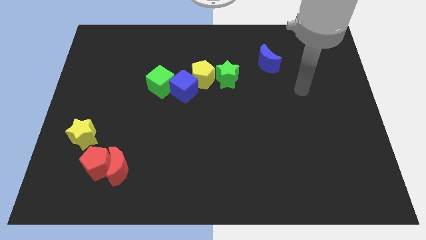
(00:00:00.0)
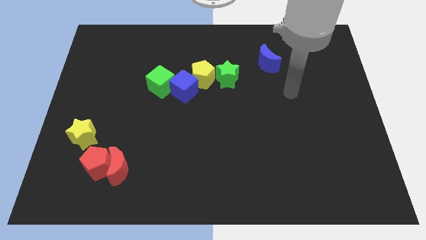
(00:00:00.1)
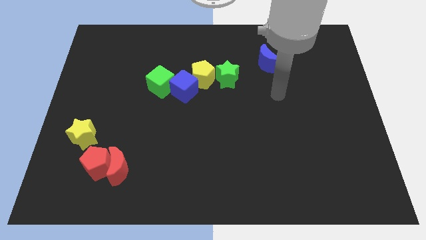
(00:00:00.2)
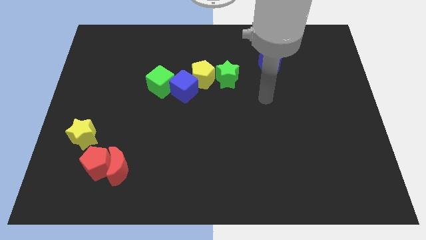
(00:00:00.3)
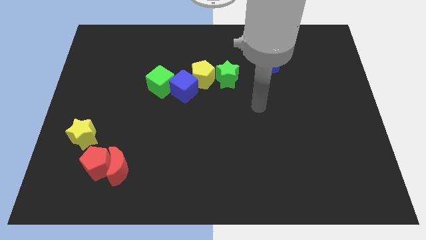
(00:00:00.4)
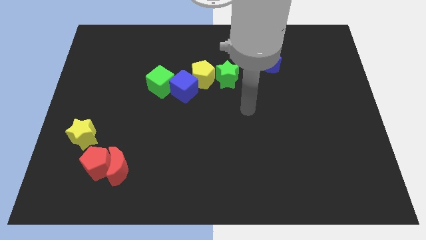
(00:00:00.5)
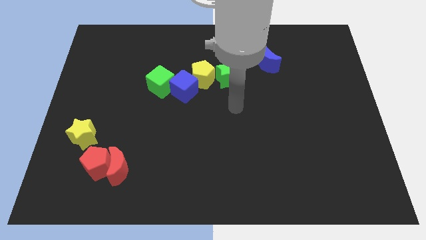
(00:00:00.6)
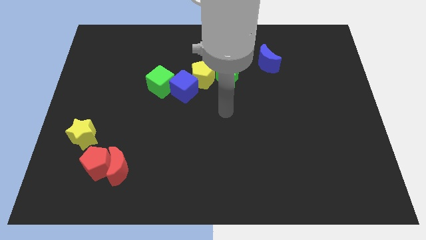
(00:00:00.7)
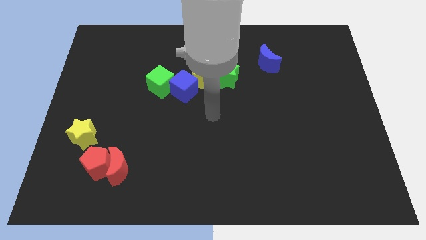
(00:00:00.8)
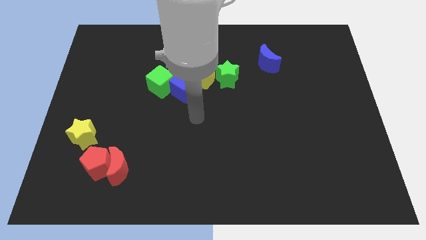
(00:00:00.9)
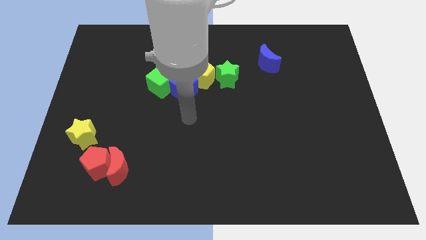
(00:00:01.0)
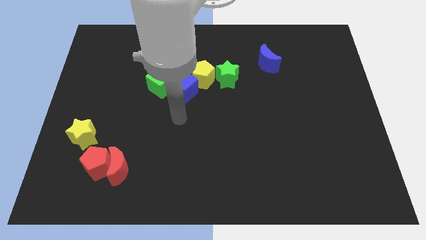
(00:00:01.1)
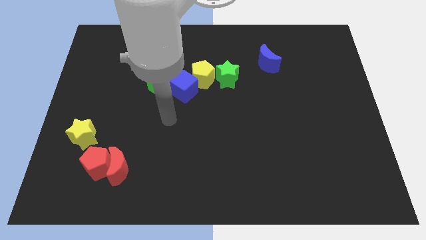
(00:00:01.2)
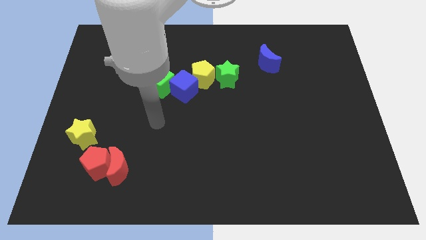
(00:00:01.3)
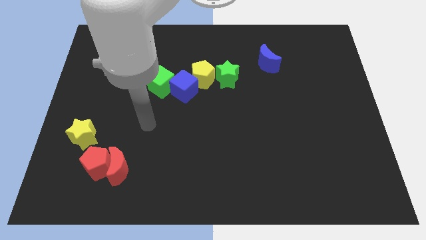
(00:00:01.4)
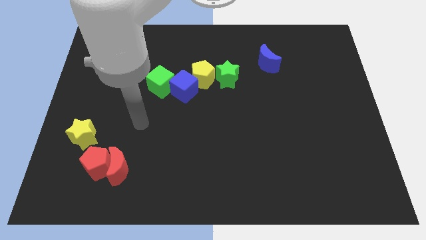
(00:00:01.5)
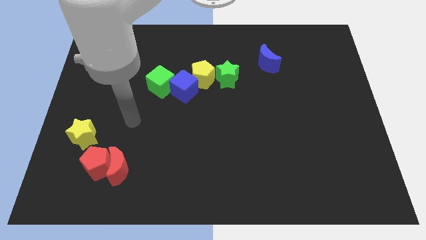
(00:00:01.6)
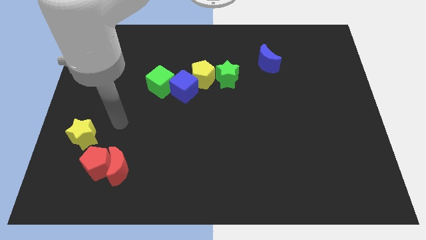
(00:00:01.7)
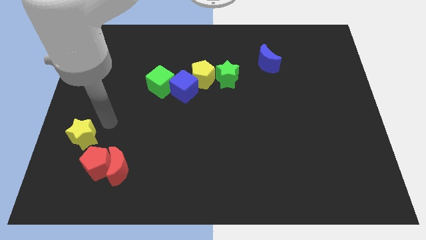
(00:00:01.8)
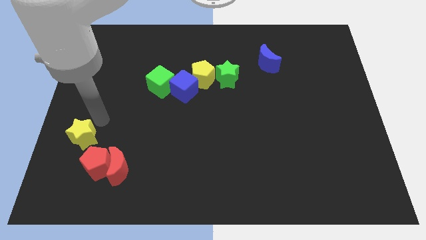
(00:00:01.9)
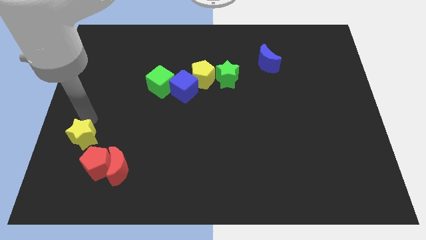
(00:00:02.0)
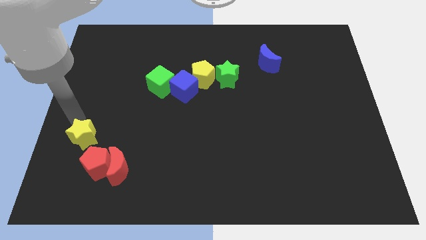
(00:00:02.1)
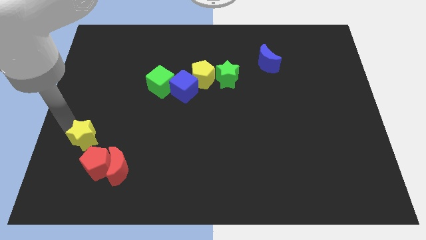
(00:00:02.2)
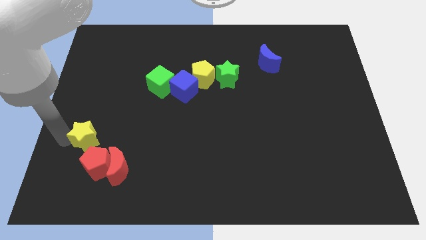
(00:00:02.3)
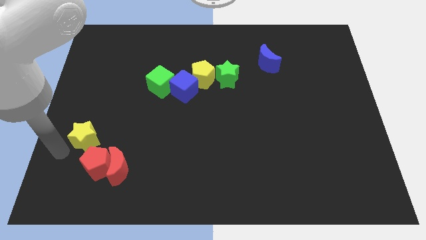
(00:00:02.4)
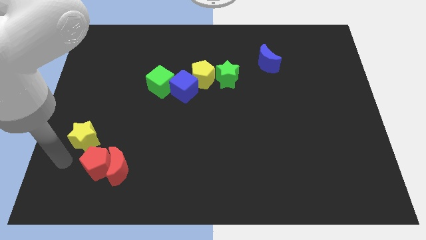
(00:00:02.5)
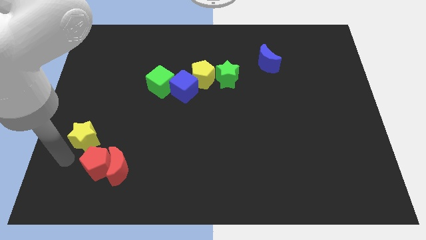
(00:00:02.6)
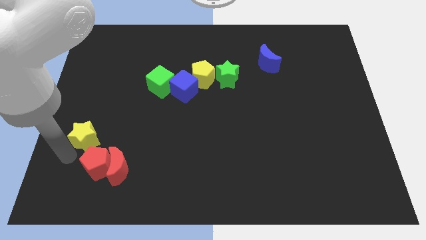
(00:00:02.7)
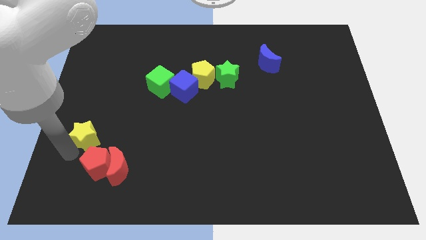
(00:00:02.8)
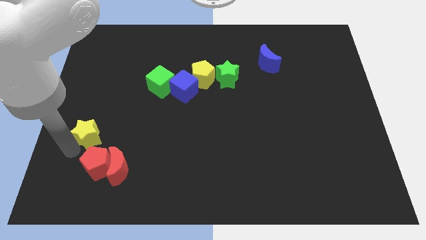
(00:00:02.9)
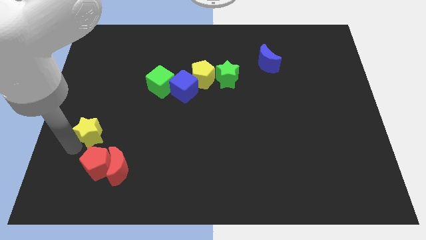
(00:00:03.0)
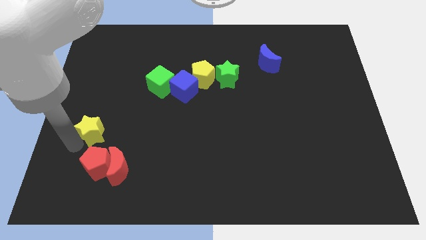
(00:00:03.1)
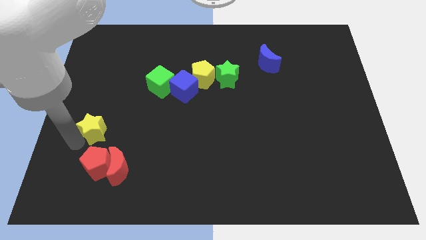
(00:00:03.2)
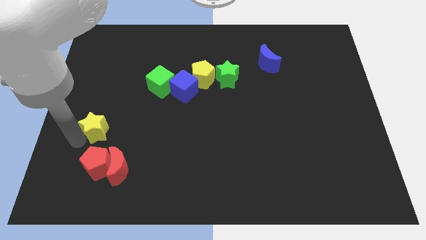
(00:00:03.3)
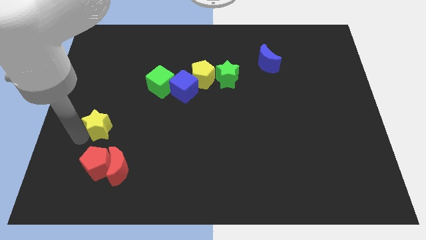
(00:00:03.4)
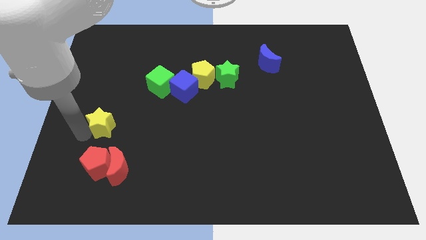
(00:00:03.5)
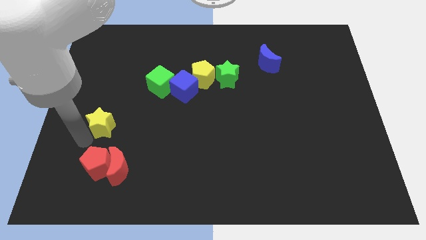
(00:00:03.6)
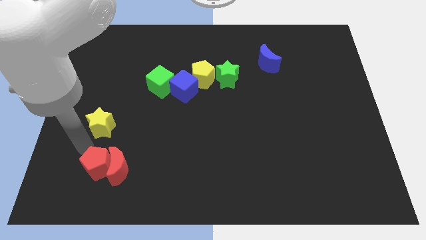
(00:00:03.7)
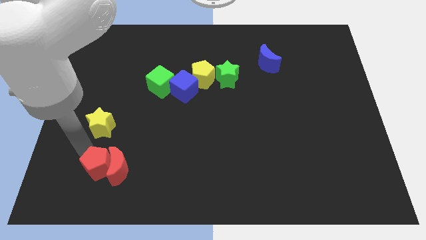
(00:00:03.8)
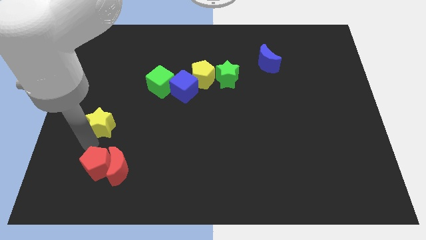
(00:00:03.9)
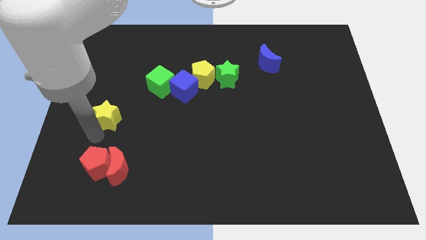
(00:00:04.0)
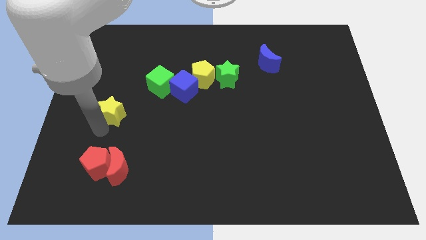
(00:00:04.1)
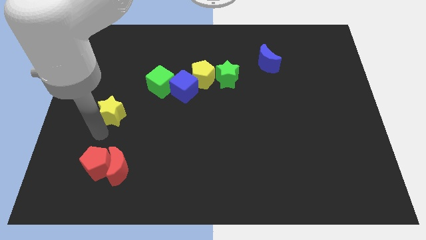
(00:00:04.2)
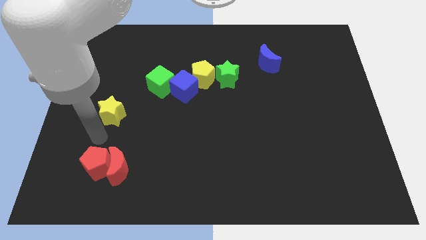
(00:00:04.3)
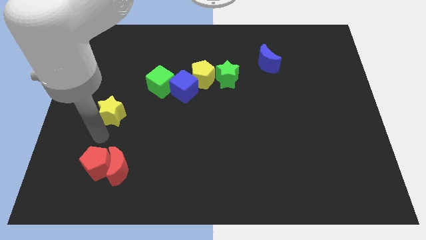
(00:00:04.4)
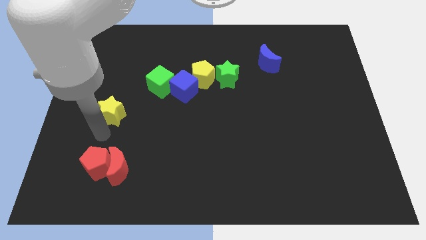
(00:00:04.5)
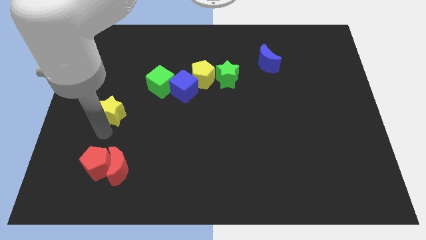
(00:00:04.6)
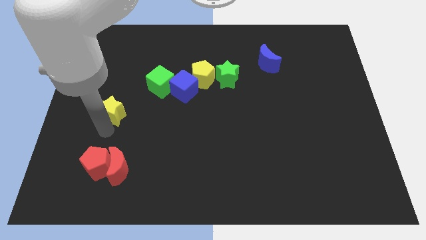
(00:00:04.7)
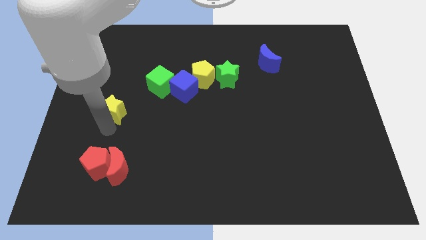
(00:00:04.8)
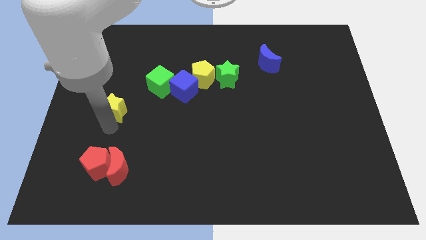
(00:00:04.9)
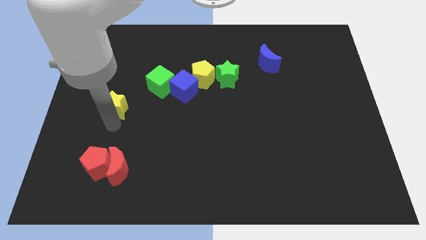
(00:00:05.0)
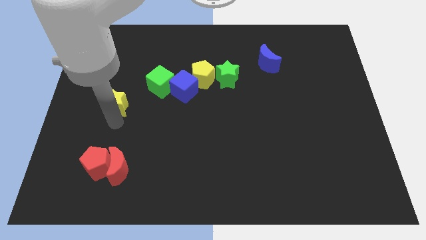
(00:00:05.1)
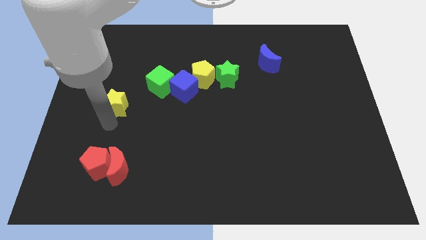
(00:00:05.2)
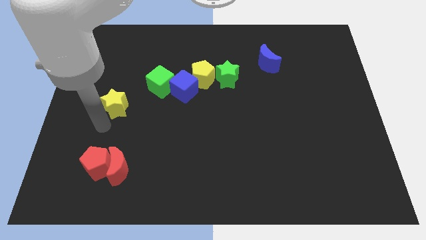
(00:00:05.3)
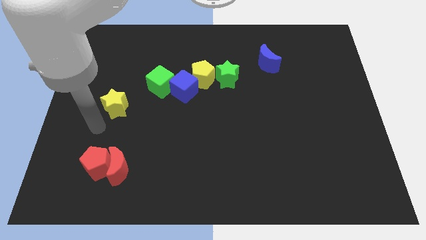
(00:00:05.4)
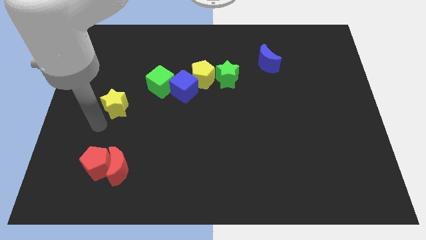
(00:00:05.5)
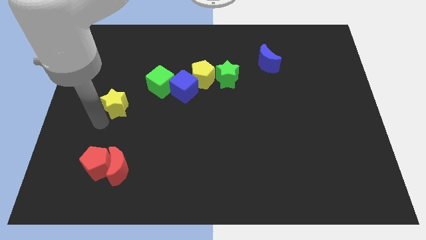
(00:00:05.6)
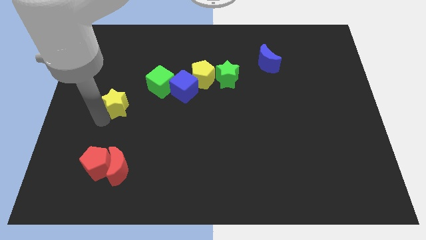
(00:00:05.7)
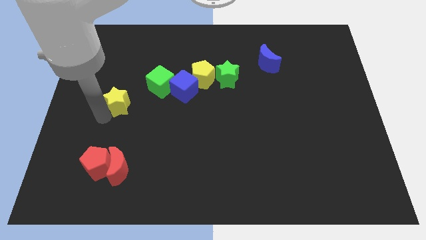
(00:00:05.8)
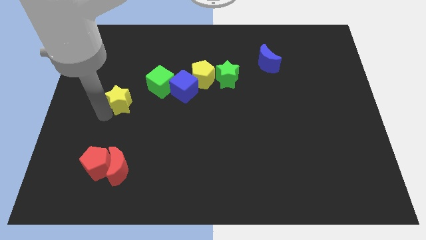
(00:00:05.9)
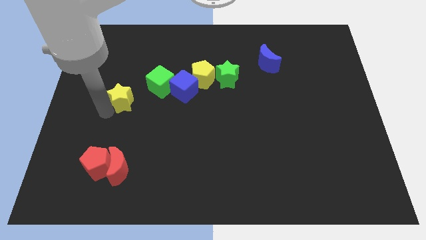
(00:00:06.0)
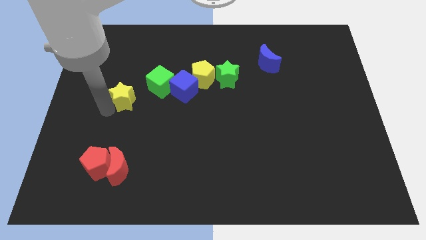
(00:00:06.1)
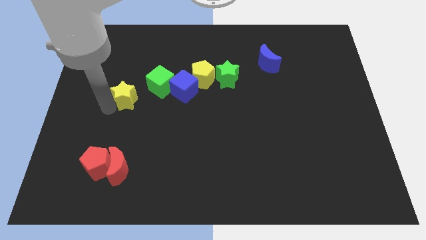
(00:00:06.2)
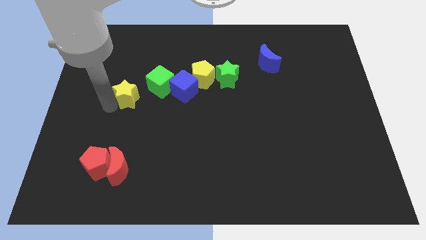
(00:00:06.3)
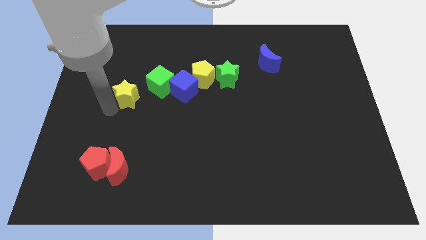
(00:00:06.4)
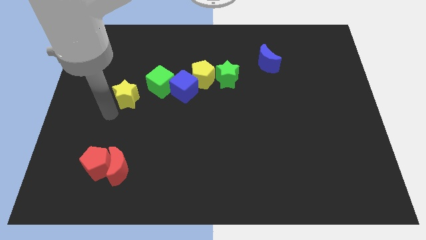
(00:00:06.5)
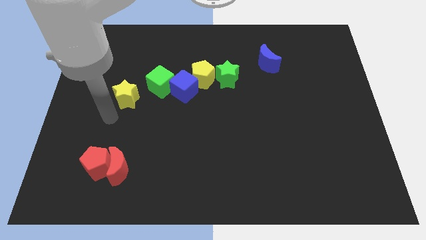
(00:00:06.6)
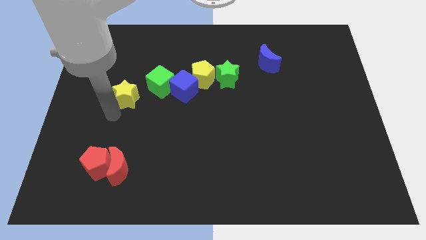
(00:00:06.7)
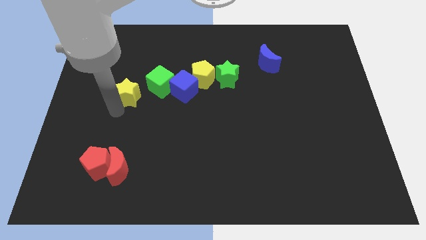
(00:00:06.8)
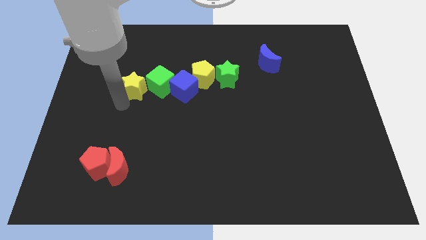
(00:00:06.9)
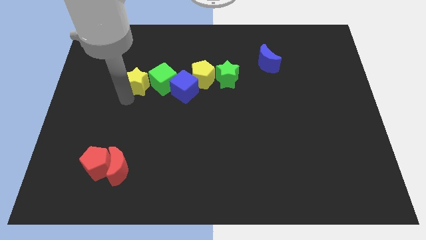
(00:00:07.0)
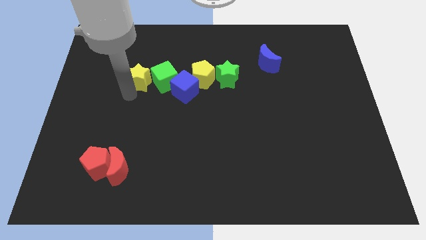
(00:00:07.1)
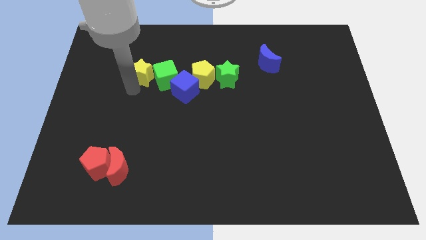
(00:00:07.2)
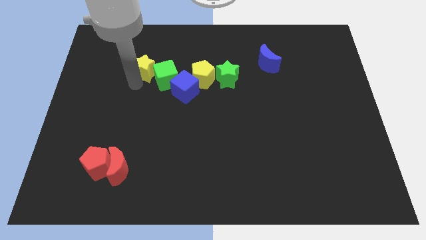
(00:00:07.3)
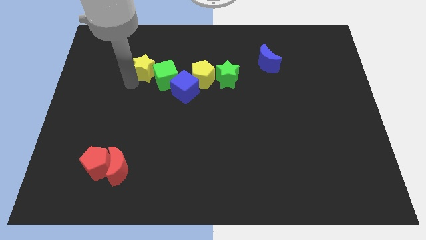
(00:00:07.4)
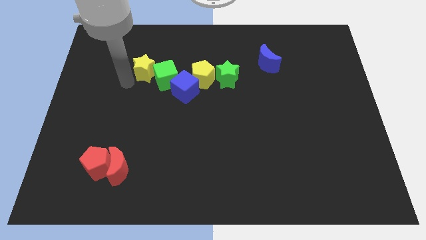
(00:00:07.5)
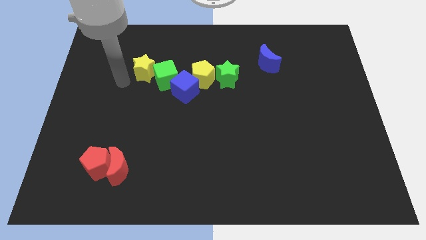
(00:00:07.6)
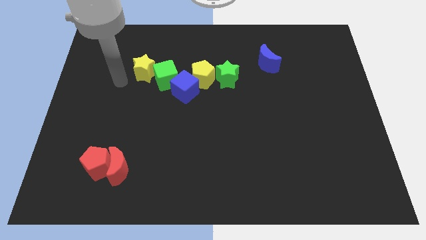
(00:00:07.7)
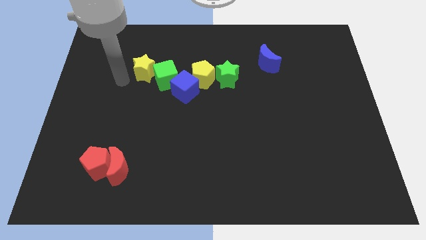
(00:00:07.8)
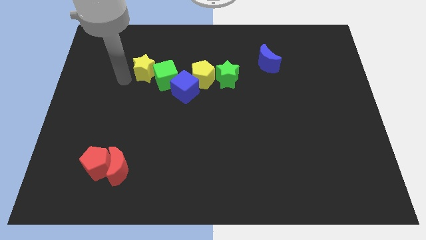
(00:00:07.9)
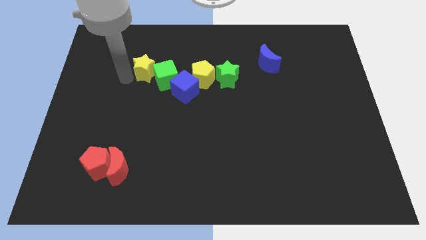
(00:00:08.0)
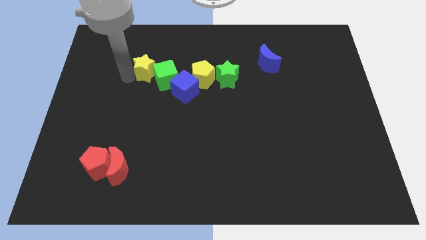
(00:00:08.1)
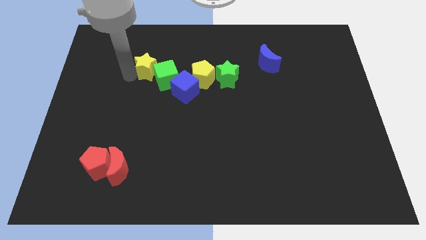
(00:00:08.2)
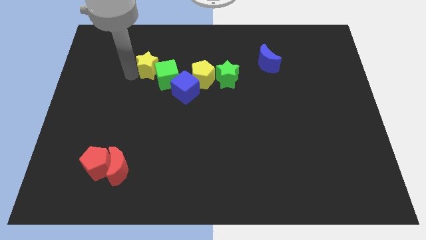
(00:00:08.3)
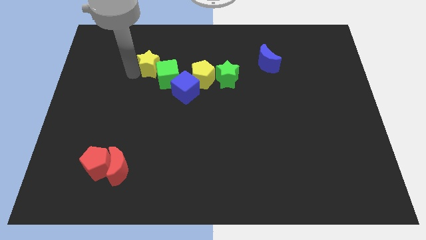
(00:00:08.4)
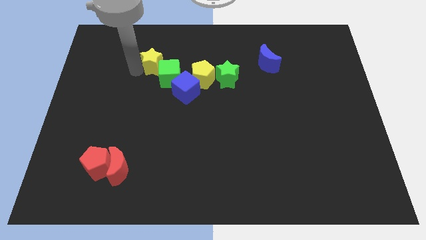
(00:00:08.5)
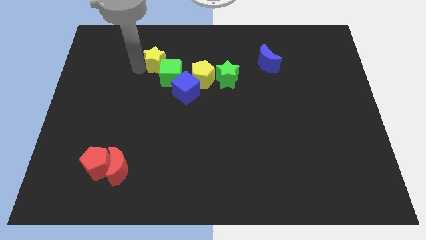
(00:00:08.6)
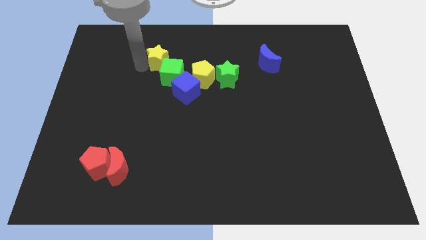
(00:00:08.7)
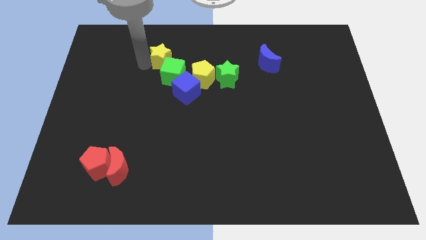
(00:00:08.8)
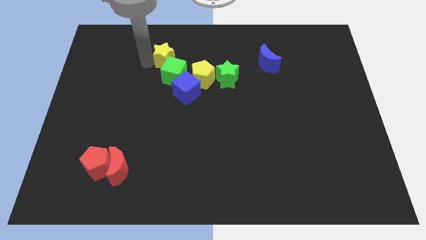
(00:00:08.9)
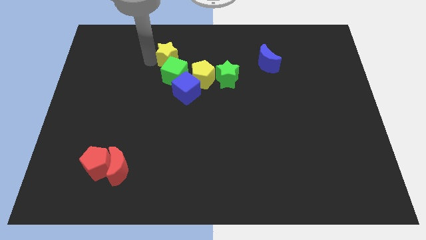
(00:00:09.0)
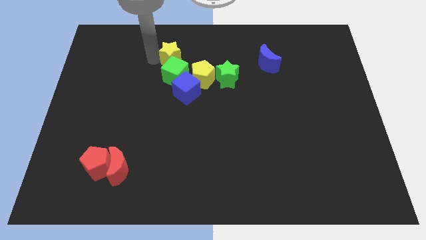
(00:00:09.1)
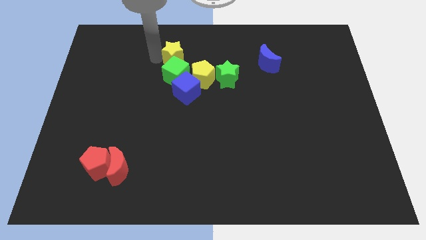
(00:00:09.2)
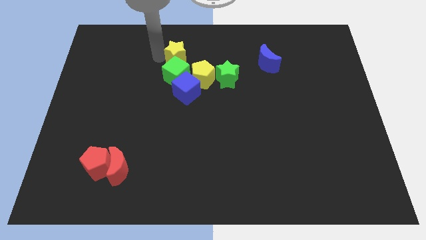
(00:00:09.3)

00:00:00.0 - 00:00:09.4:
push the yellow star diagonally up and to the right of the green cube
